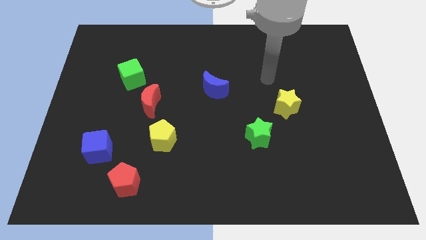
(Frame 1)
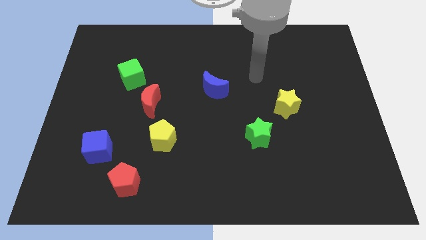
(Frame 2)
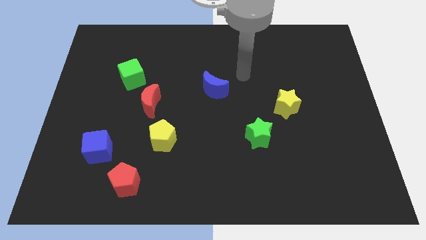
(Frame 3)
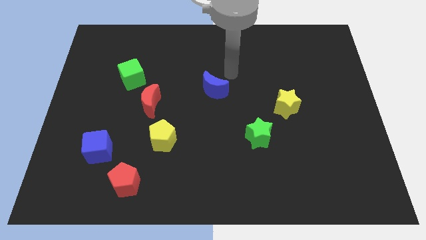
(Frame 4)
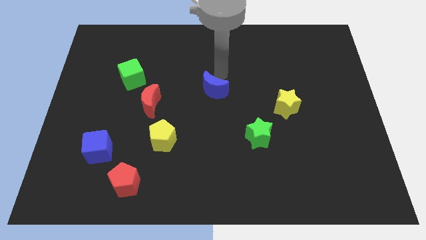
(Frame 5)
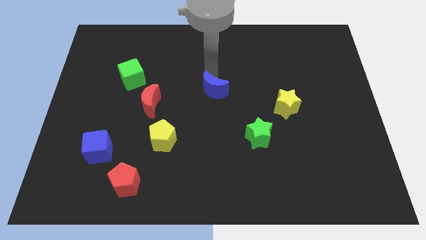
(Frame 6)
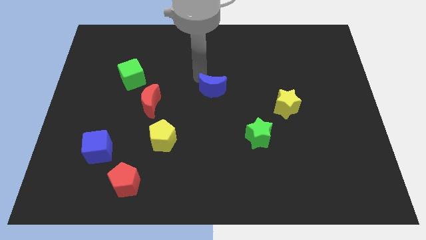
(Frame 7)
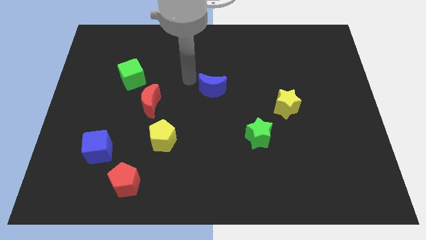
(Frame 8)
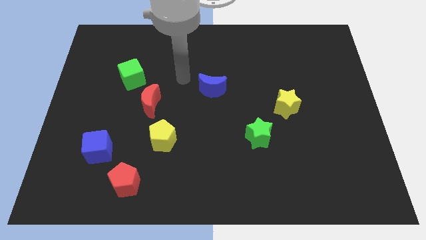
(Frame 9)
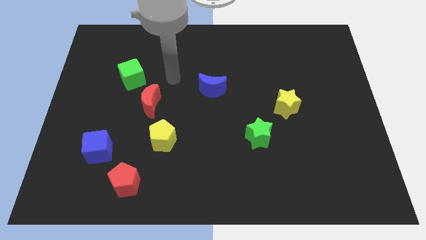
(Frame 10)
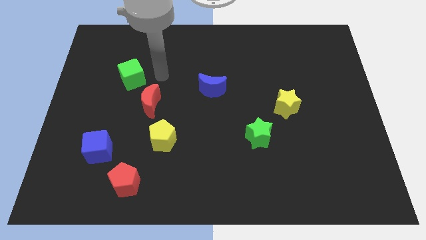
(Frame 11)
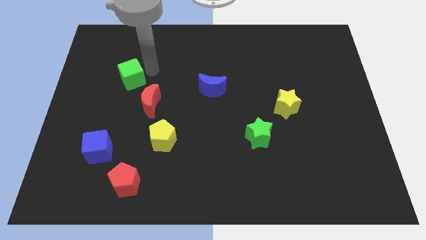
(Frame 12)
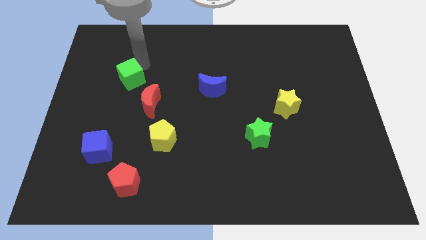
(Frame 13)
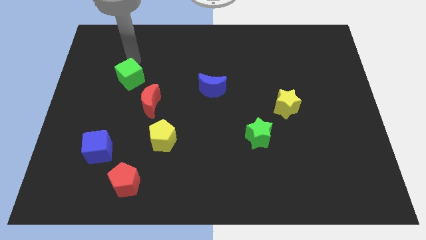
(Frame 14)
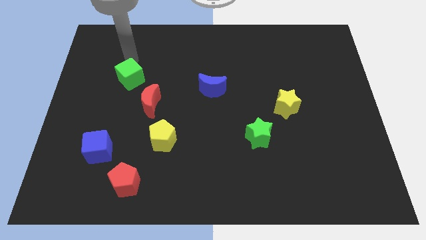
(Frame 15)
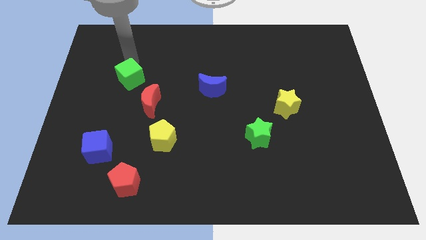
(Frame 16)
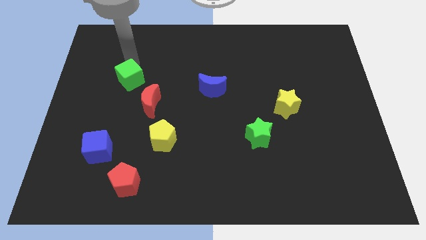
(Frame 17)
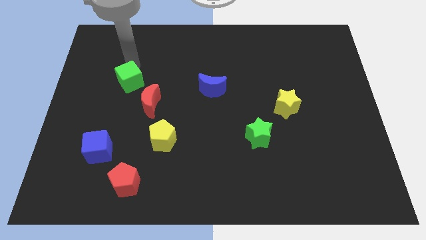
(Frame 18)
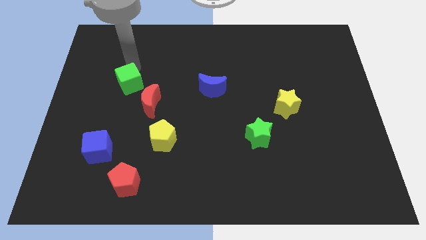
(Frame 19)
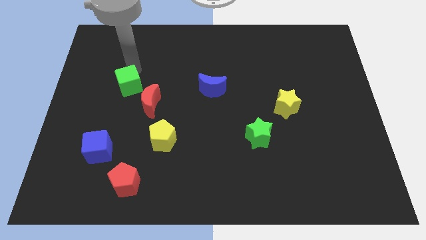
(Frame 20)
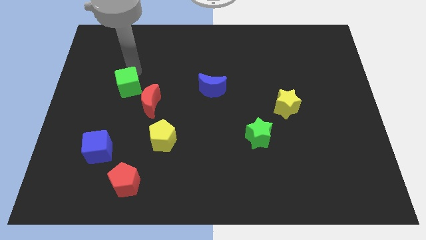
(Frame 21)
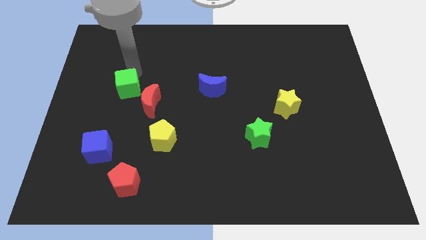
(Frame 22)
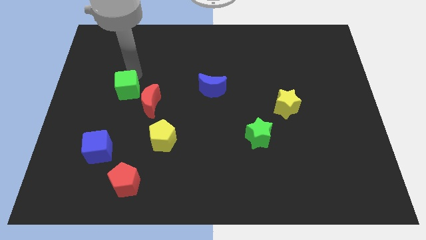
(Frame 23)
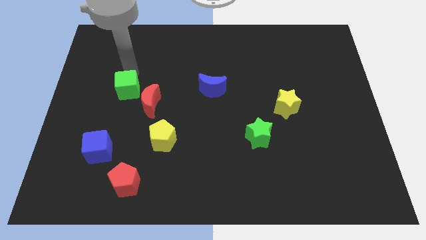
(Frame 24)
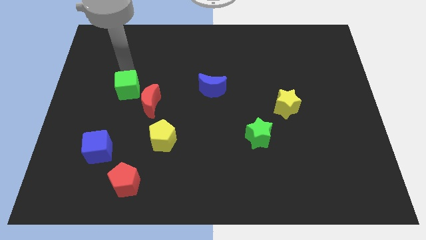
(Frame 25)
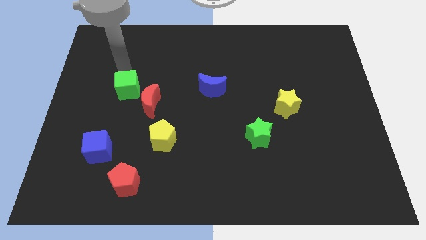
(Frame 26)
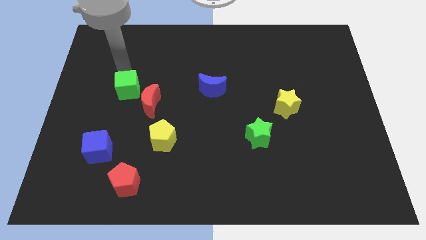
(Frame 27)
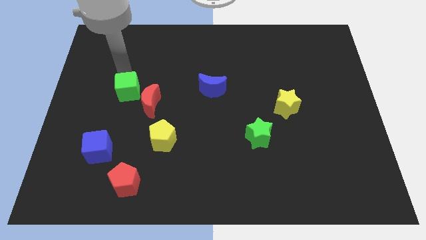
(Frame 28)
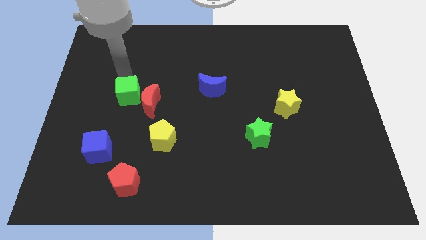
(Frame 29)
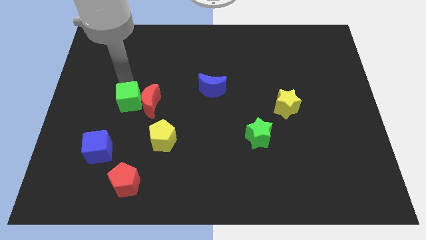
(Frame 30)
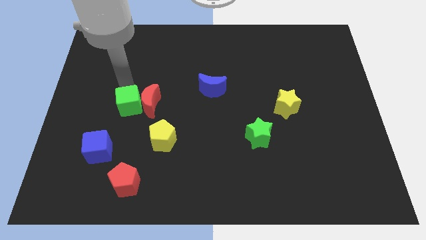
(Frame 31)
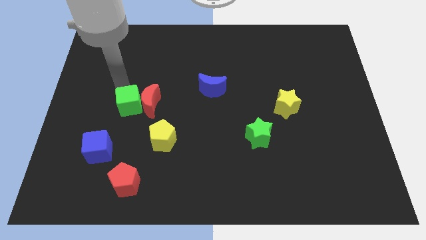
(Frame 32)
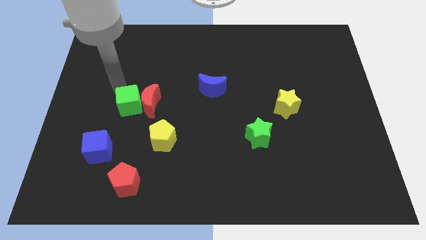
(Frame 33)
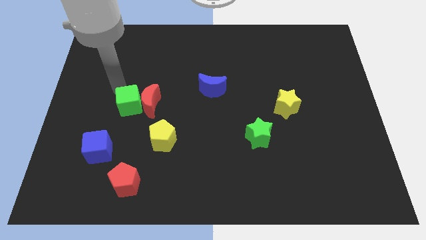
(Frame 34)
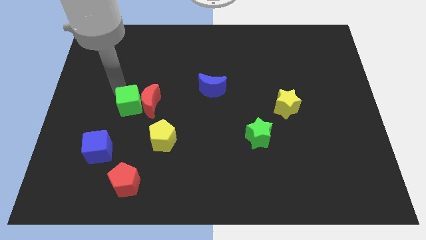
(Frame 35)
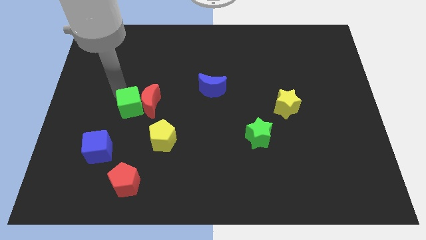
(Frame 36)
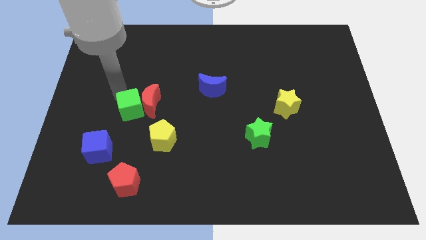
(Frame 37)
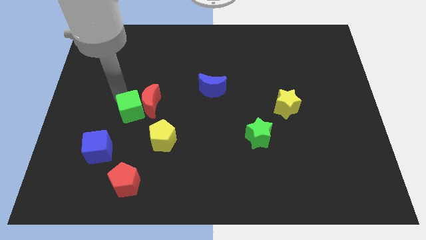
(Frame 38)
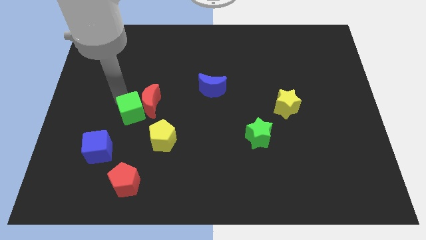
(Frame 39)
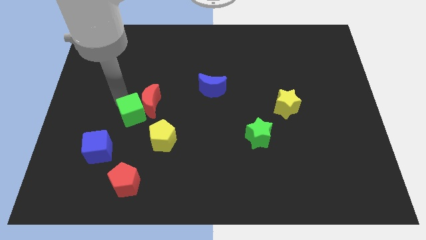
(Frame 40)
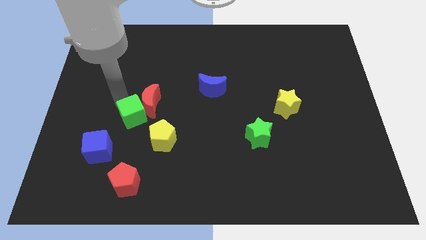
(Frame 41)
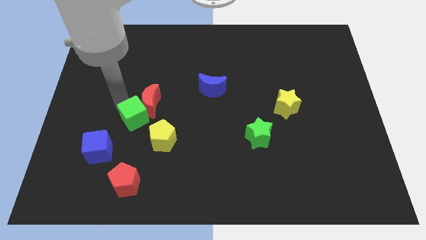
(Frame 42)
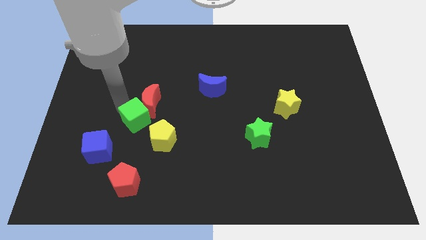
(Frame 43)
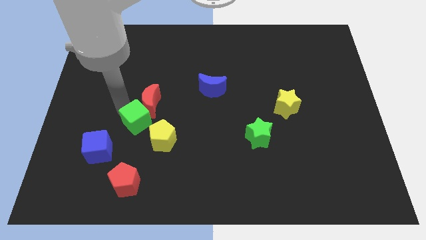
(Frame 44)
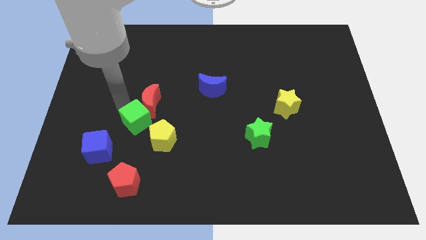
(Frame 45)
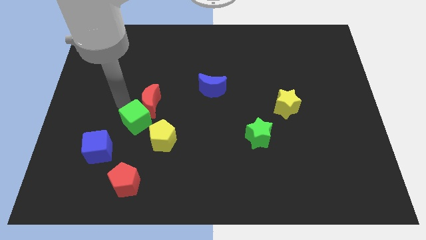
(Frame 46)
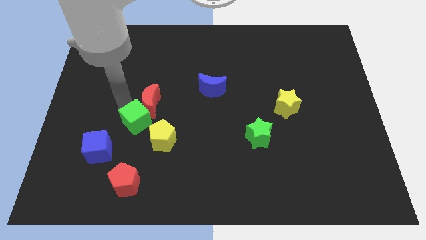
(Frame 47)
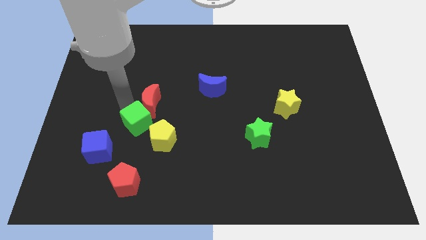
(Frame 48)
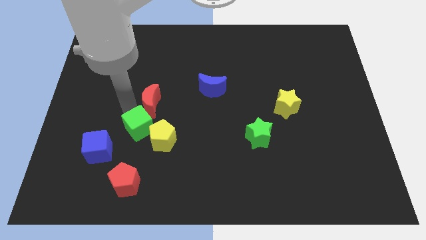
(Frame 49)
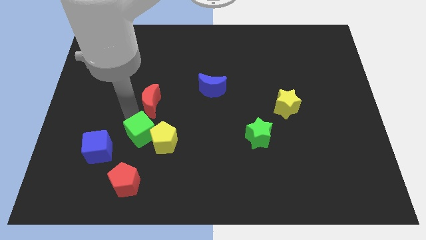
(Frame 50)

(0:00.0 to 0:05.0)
slide the green cube to the yellow pentagon

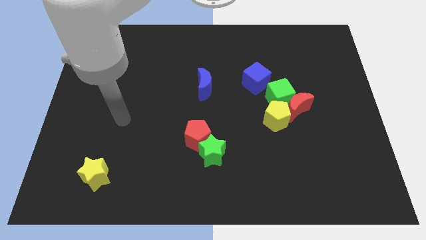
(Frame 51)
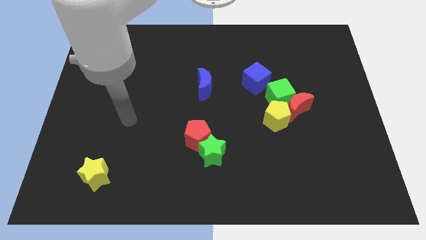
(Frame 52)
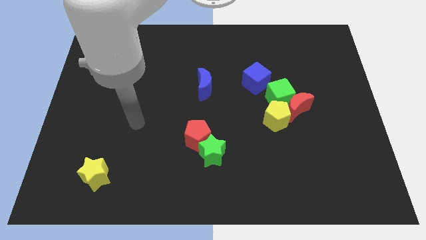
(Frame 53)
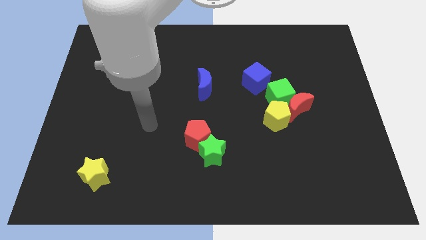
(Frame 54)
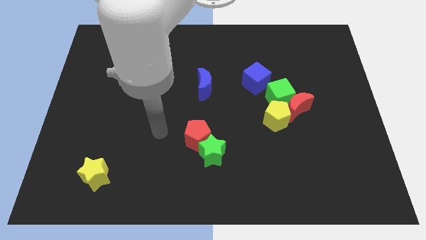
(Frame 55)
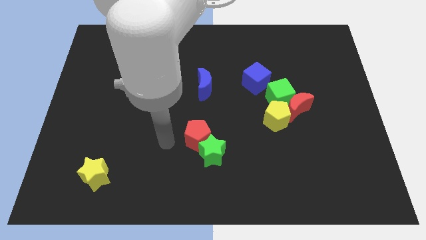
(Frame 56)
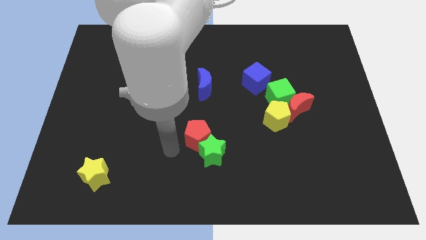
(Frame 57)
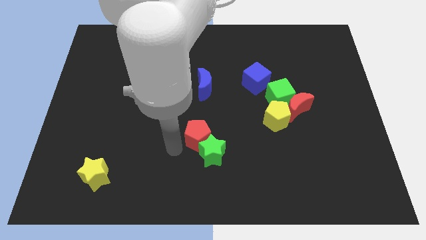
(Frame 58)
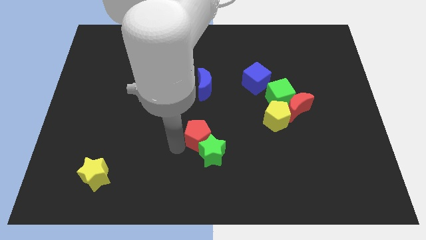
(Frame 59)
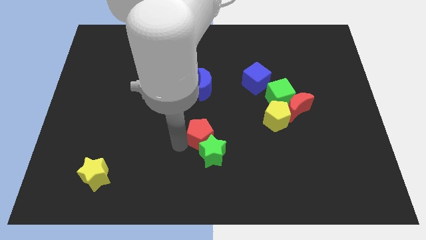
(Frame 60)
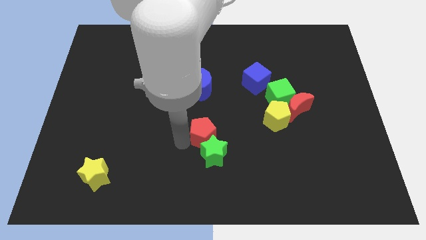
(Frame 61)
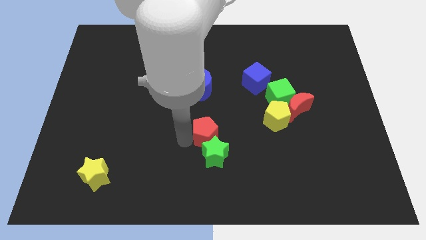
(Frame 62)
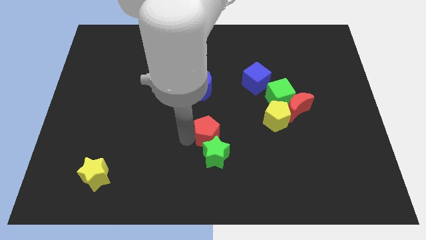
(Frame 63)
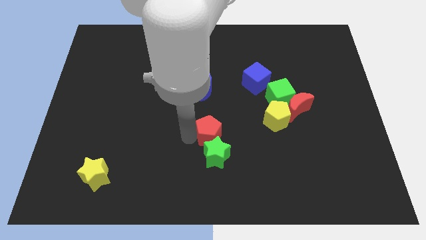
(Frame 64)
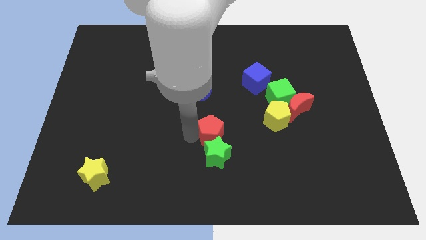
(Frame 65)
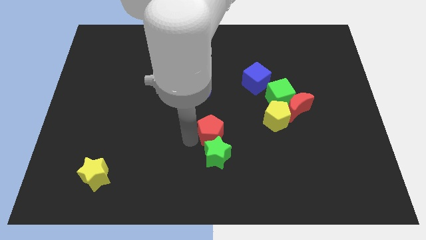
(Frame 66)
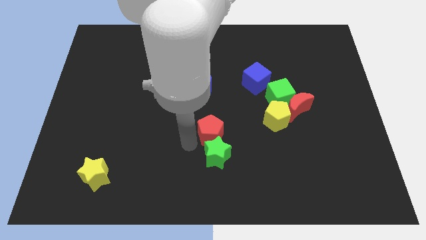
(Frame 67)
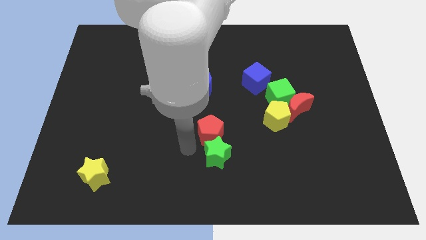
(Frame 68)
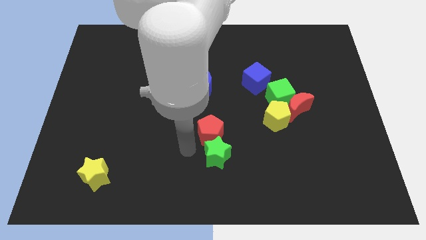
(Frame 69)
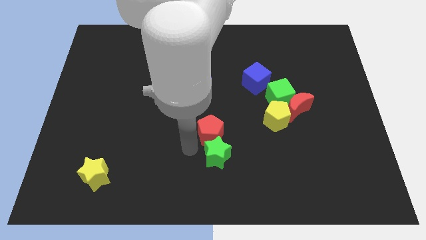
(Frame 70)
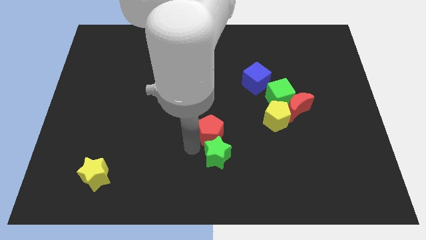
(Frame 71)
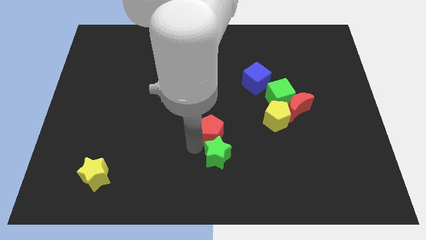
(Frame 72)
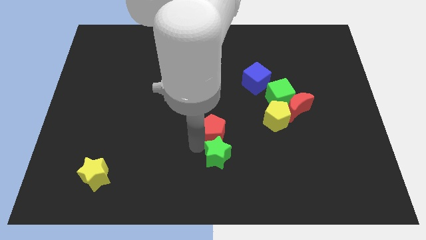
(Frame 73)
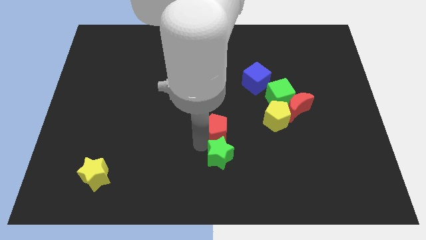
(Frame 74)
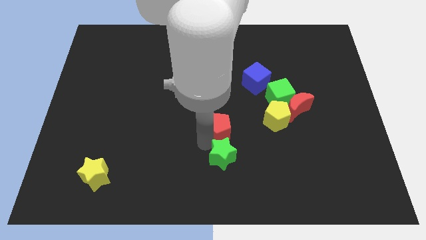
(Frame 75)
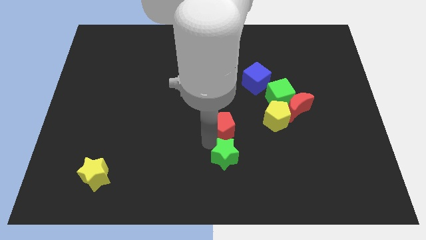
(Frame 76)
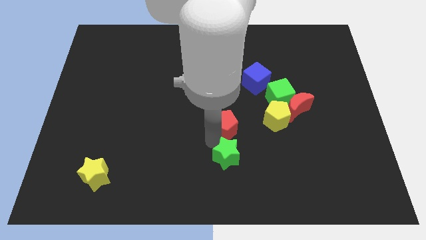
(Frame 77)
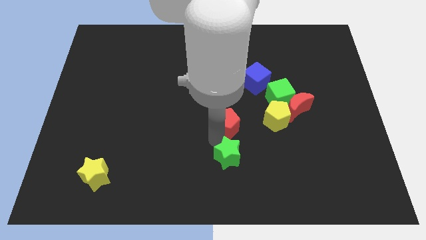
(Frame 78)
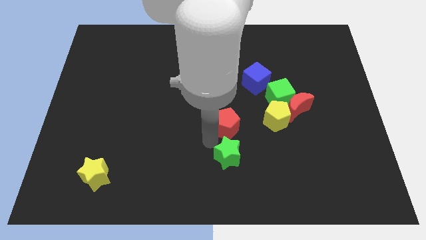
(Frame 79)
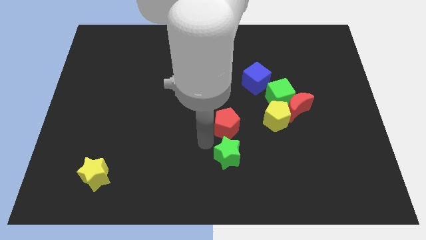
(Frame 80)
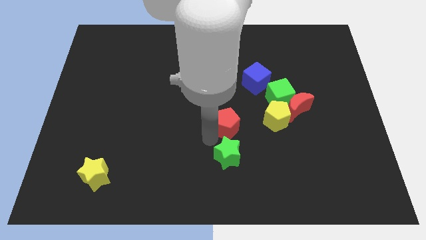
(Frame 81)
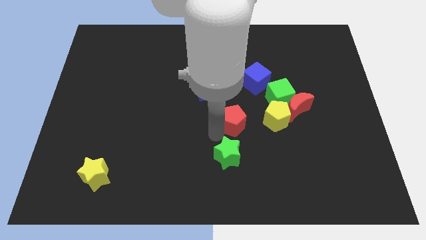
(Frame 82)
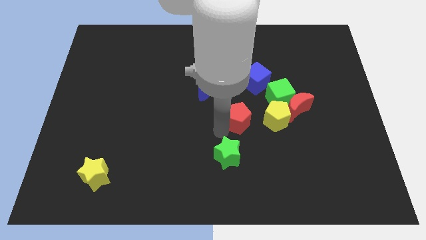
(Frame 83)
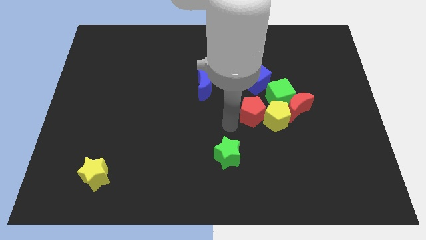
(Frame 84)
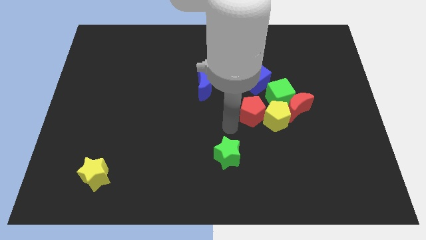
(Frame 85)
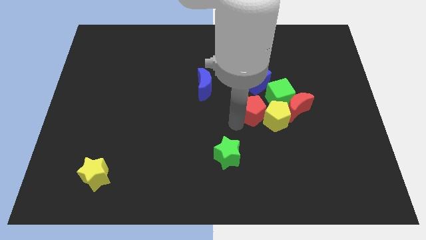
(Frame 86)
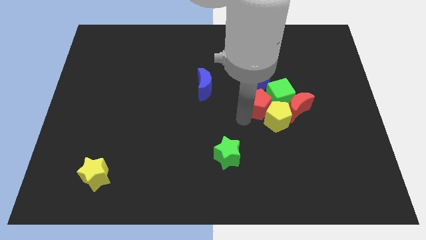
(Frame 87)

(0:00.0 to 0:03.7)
move the red pentagon towards the green cube
